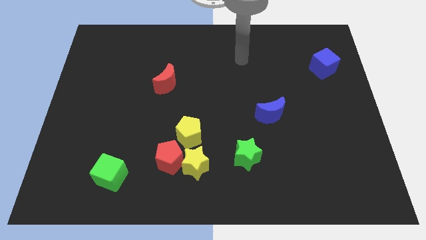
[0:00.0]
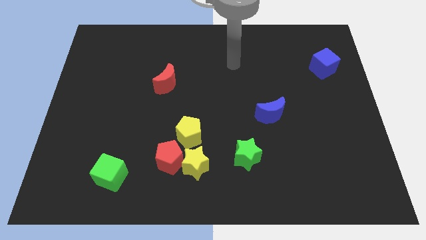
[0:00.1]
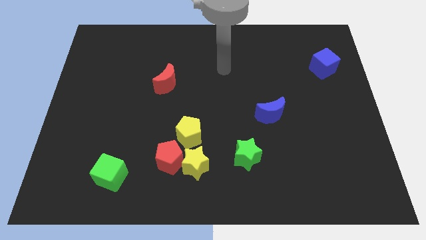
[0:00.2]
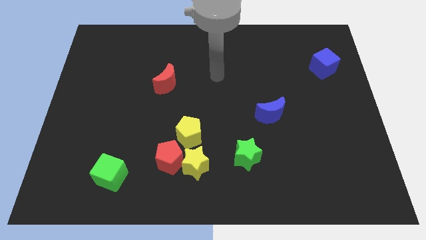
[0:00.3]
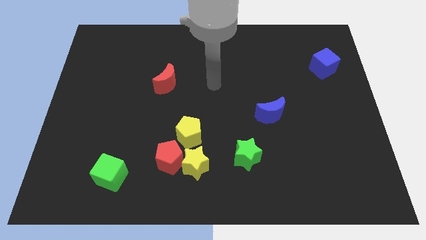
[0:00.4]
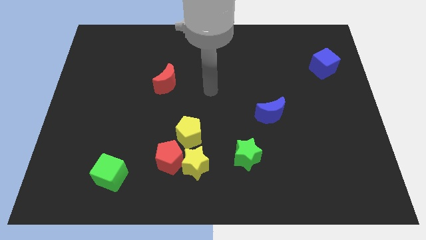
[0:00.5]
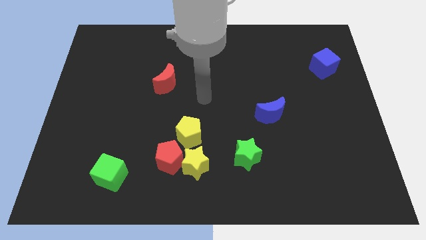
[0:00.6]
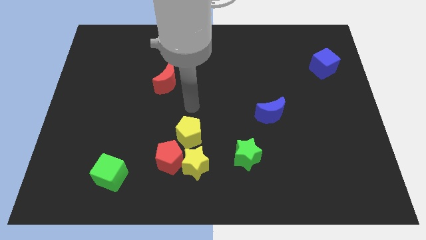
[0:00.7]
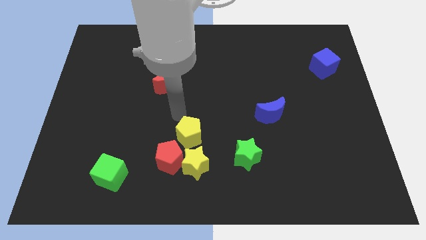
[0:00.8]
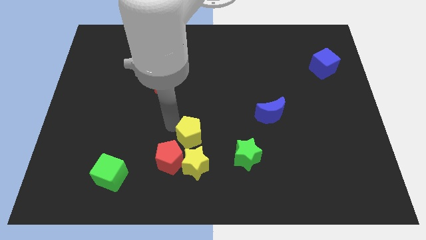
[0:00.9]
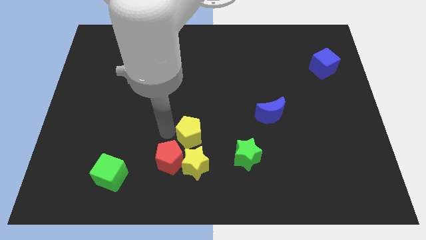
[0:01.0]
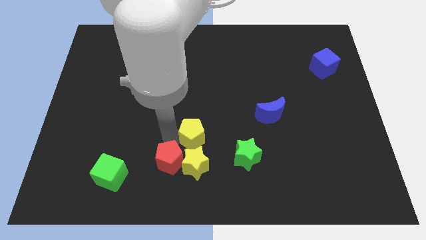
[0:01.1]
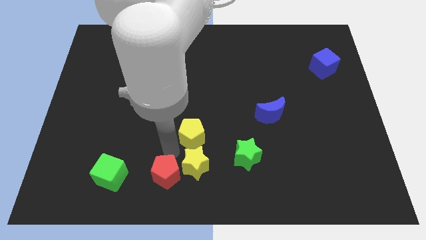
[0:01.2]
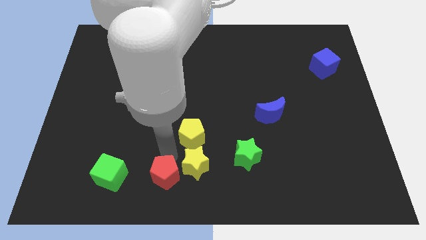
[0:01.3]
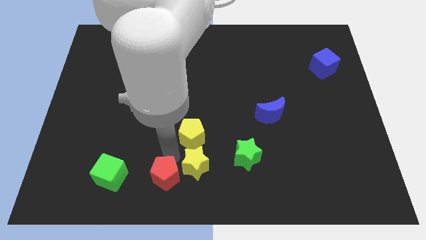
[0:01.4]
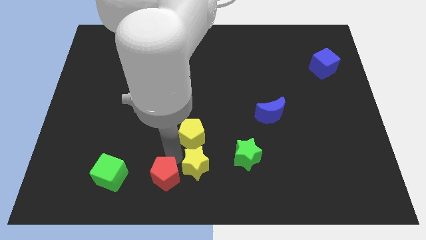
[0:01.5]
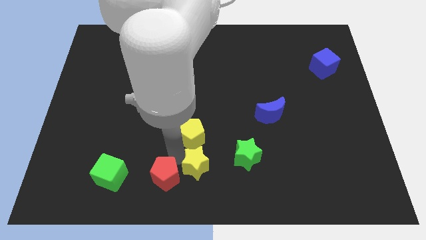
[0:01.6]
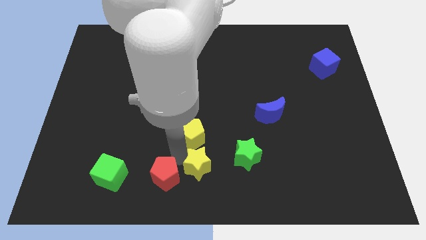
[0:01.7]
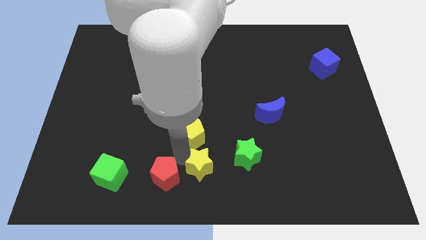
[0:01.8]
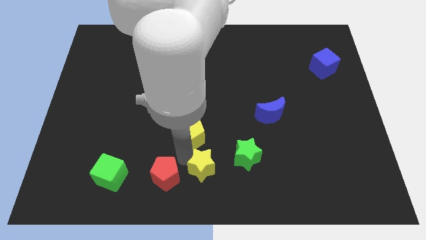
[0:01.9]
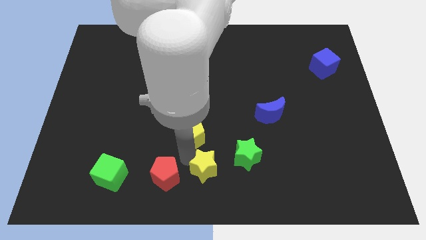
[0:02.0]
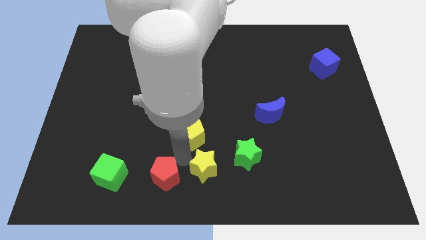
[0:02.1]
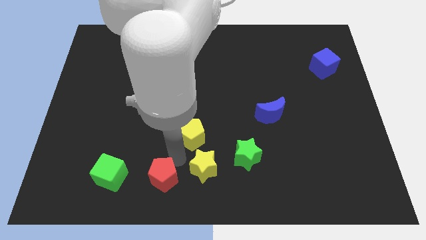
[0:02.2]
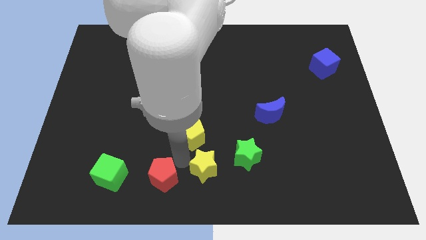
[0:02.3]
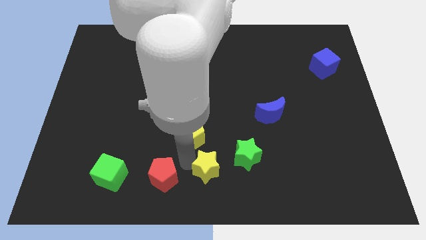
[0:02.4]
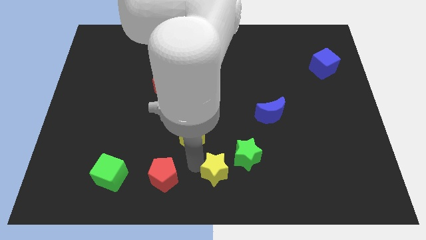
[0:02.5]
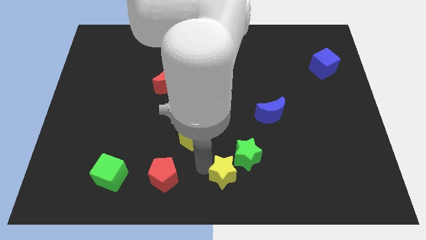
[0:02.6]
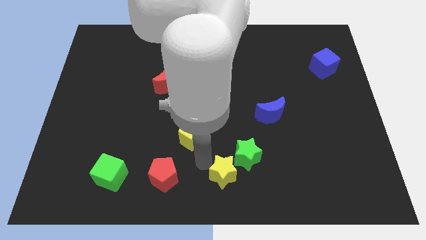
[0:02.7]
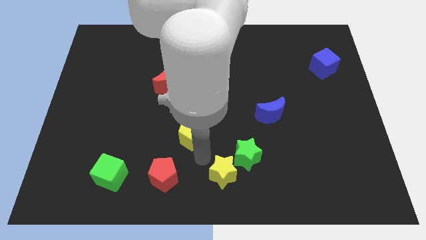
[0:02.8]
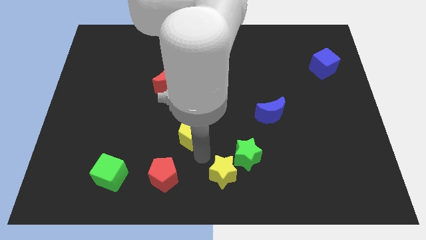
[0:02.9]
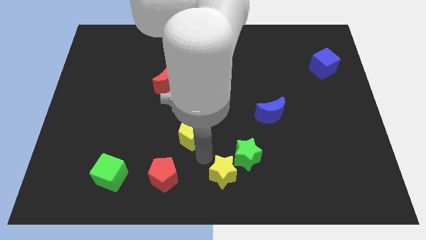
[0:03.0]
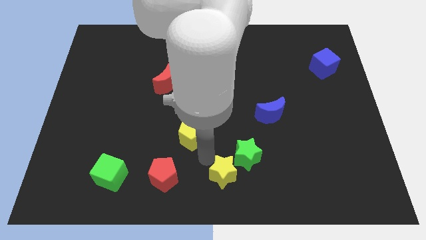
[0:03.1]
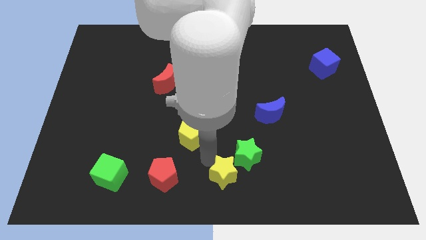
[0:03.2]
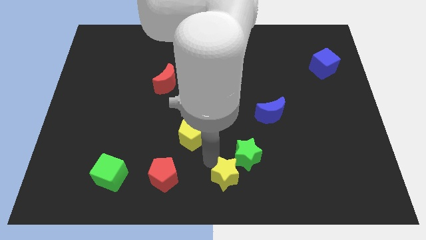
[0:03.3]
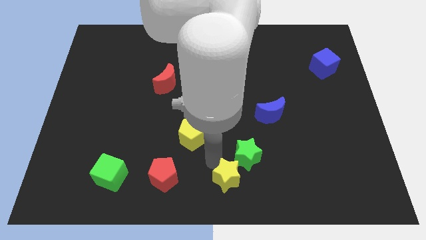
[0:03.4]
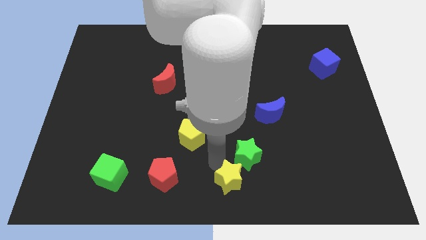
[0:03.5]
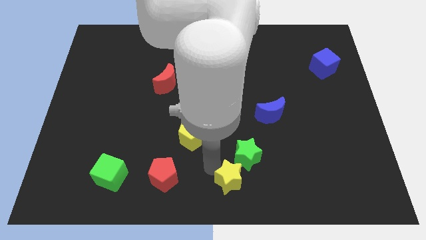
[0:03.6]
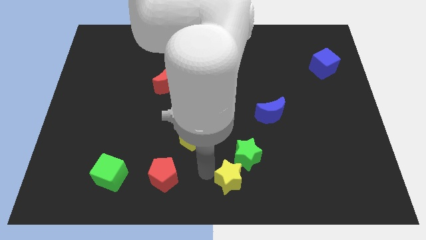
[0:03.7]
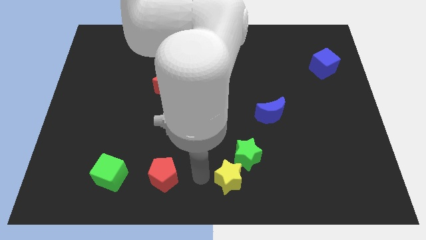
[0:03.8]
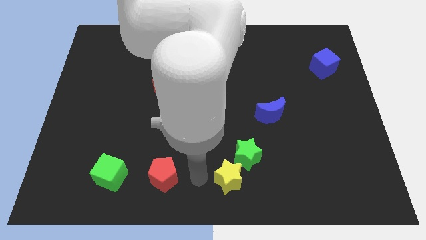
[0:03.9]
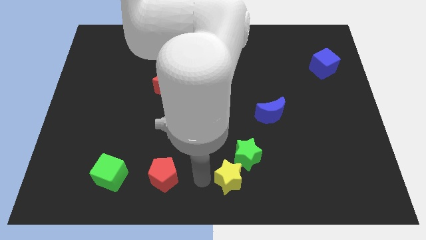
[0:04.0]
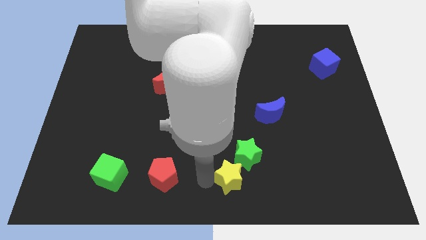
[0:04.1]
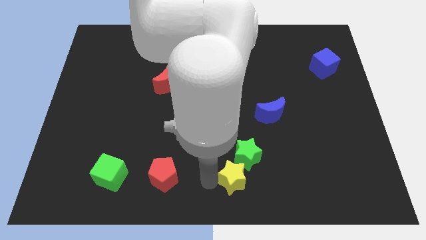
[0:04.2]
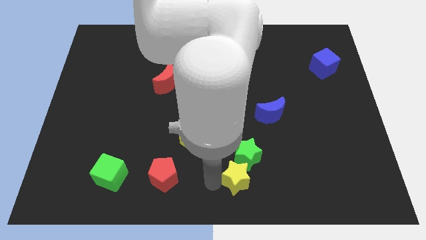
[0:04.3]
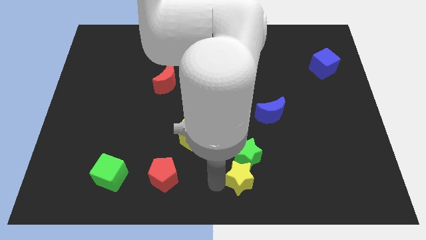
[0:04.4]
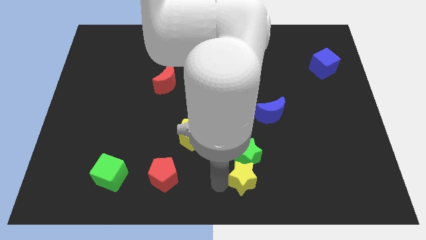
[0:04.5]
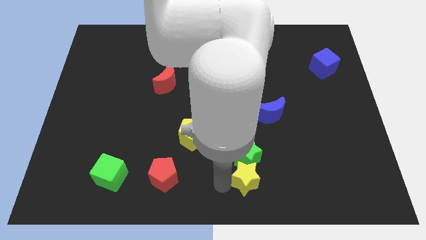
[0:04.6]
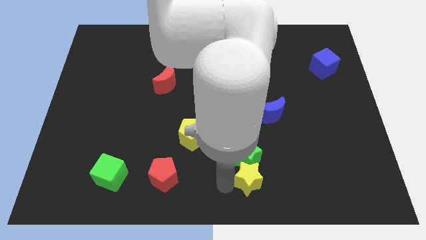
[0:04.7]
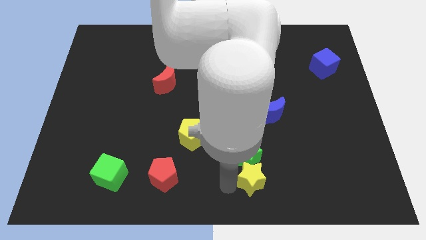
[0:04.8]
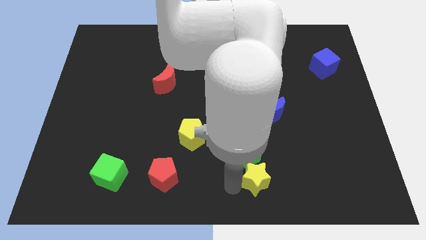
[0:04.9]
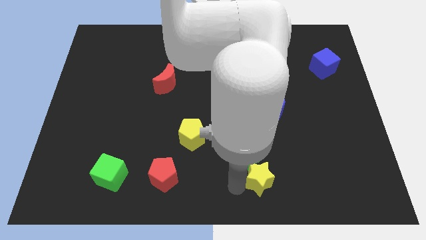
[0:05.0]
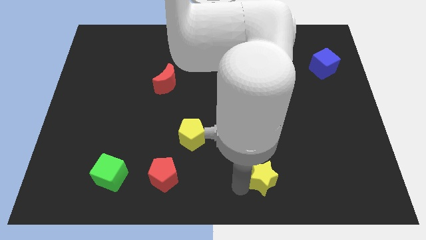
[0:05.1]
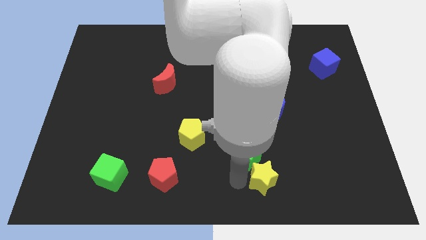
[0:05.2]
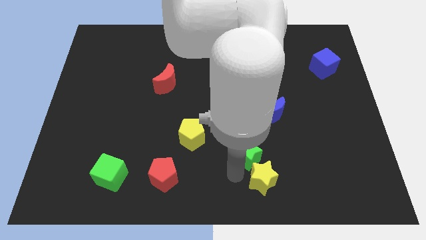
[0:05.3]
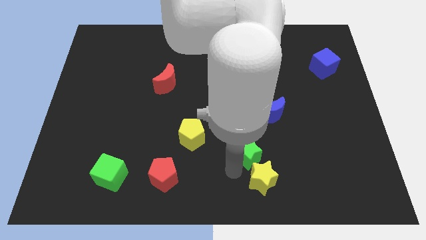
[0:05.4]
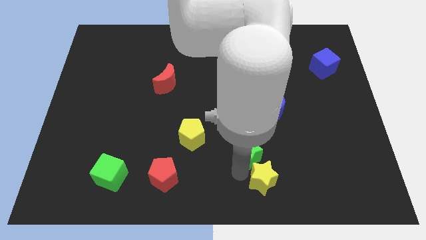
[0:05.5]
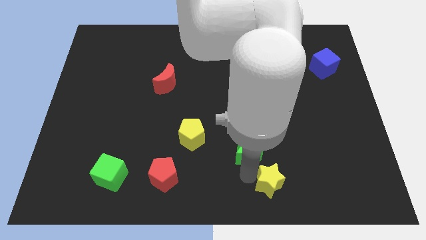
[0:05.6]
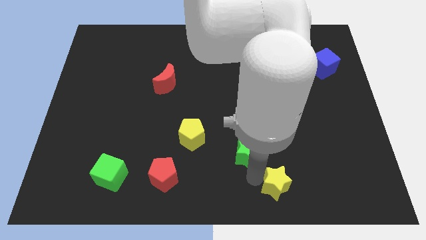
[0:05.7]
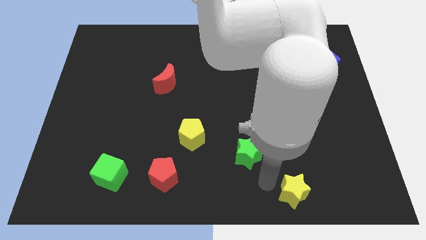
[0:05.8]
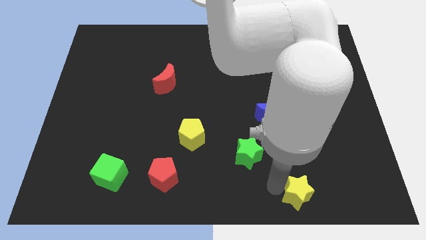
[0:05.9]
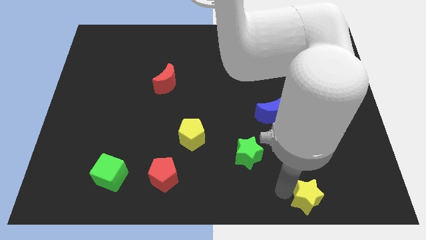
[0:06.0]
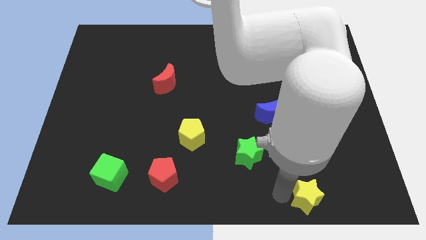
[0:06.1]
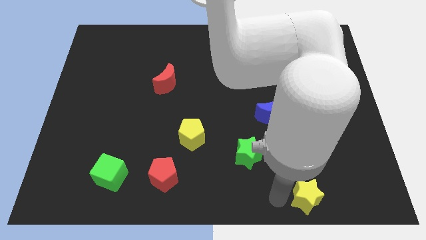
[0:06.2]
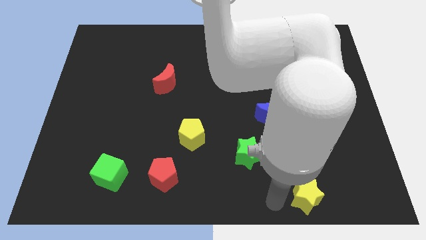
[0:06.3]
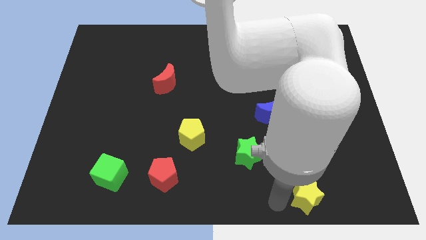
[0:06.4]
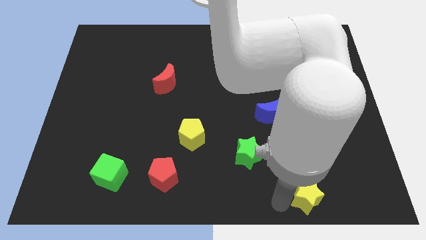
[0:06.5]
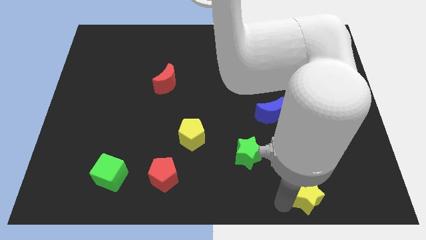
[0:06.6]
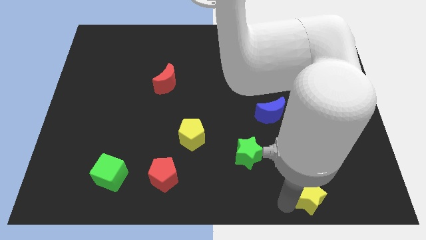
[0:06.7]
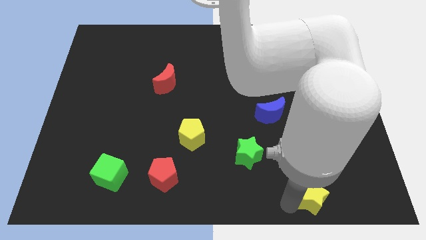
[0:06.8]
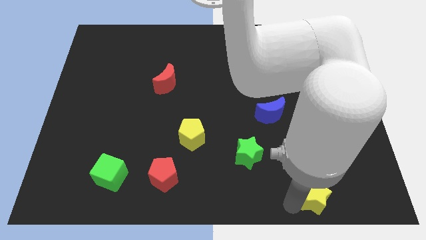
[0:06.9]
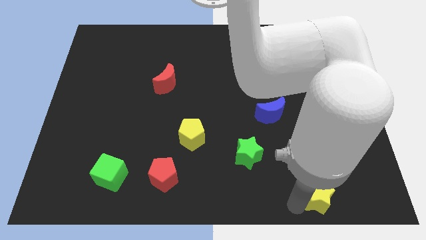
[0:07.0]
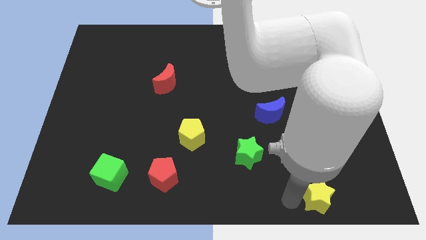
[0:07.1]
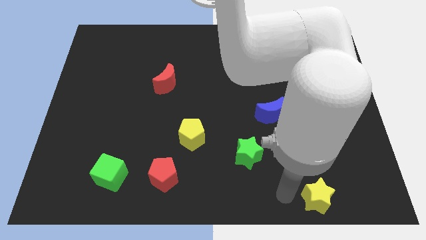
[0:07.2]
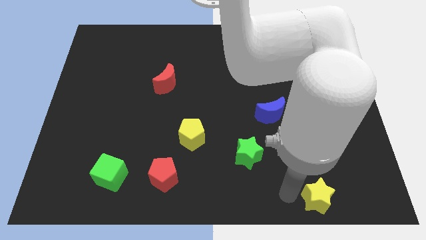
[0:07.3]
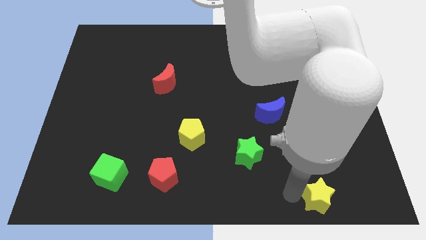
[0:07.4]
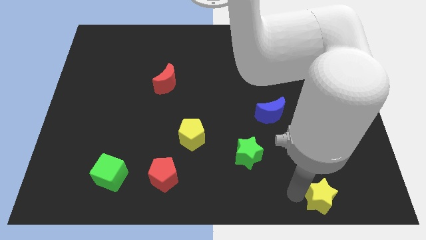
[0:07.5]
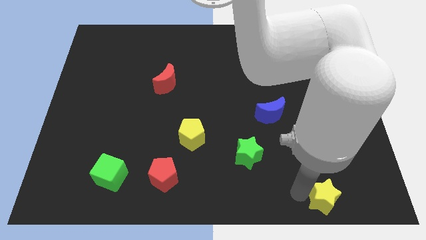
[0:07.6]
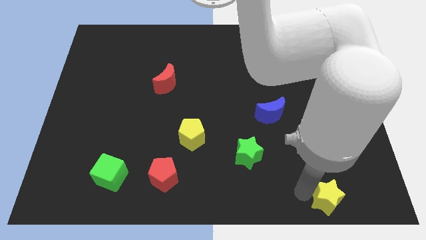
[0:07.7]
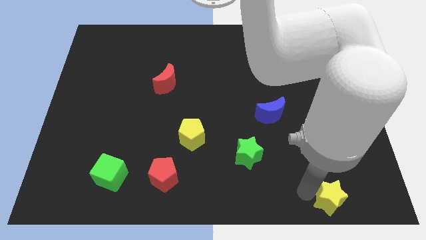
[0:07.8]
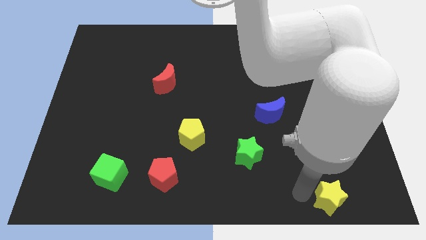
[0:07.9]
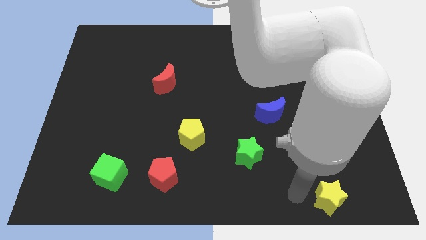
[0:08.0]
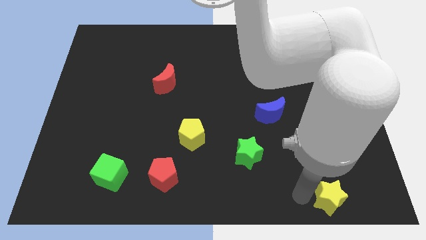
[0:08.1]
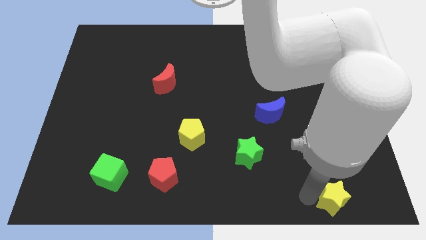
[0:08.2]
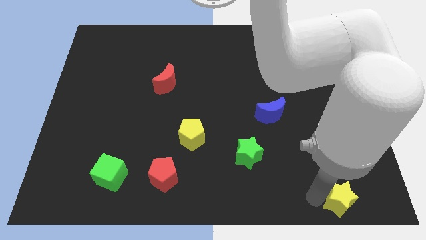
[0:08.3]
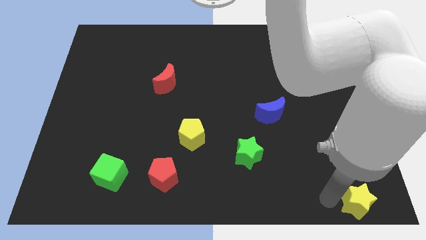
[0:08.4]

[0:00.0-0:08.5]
push the yellow star to the bottom right
